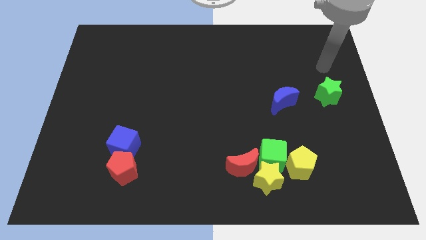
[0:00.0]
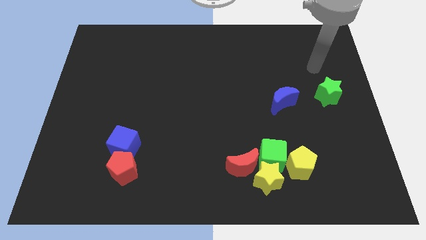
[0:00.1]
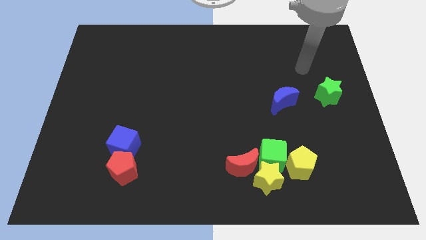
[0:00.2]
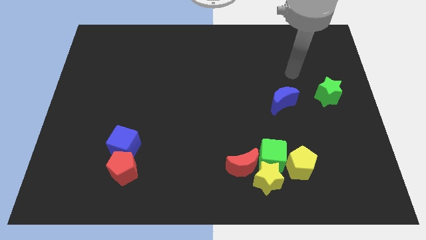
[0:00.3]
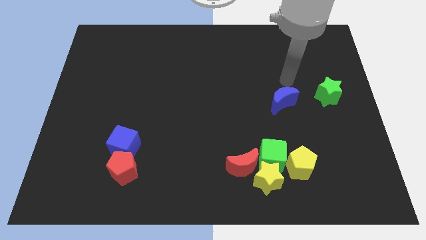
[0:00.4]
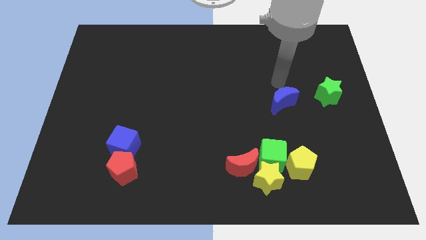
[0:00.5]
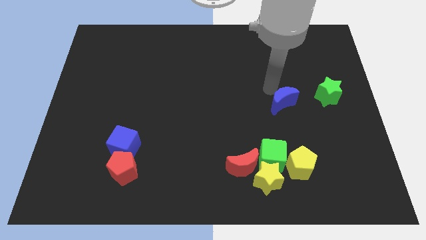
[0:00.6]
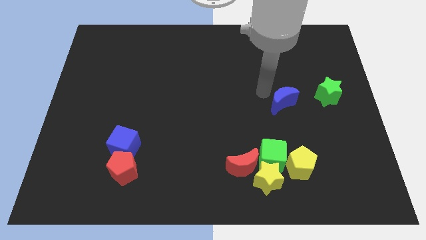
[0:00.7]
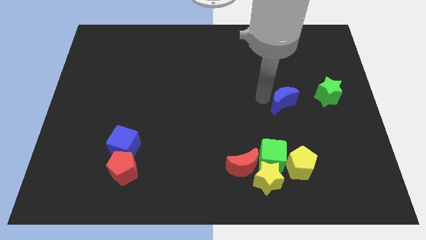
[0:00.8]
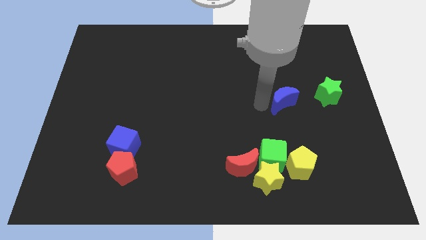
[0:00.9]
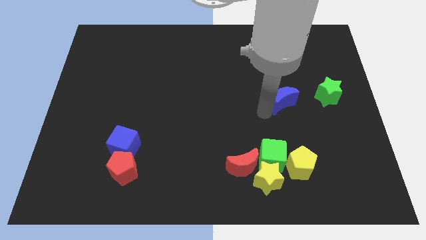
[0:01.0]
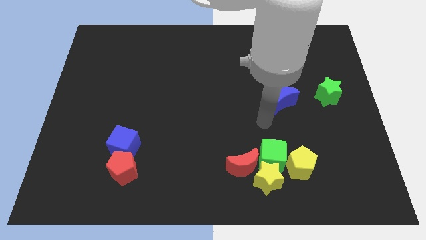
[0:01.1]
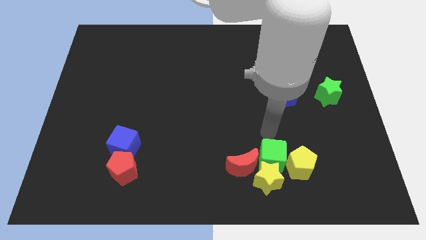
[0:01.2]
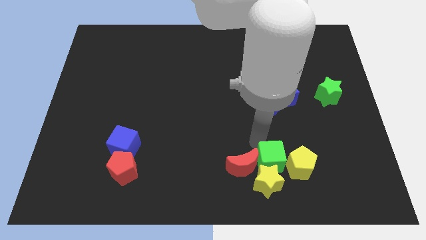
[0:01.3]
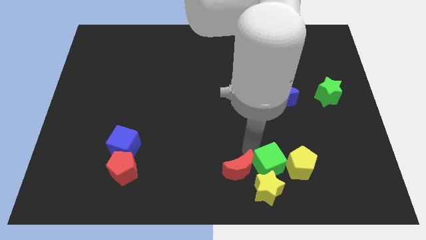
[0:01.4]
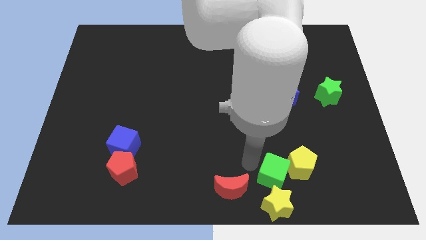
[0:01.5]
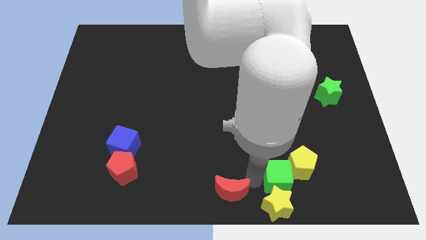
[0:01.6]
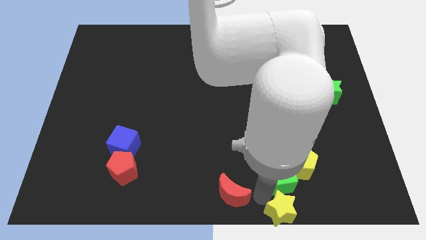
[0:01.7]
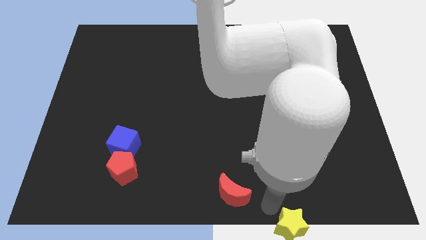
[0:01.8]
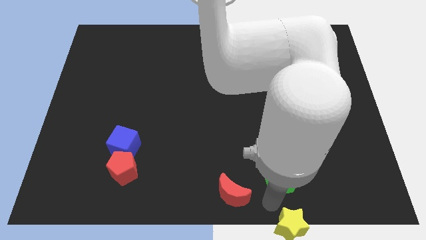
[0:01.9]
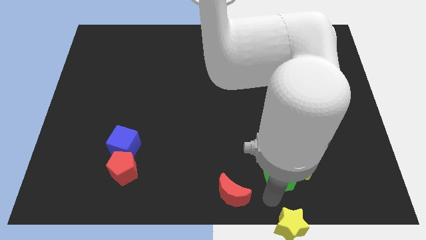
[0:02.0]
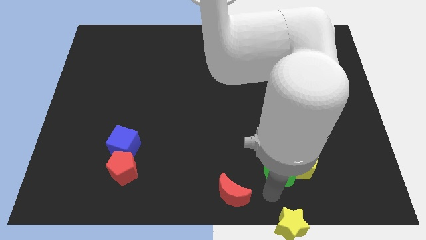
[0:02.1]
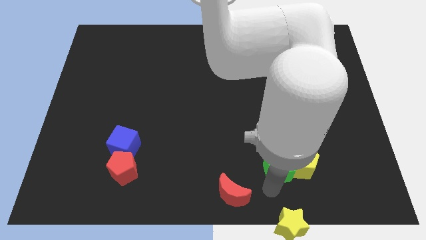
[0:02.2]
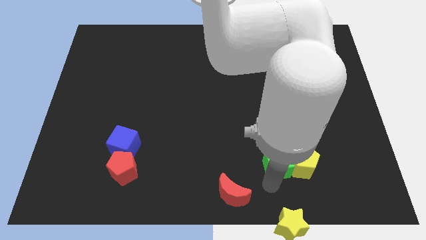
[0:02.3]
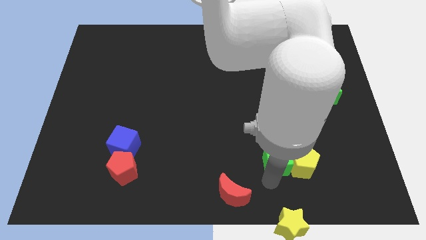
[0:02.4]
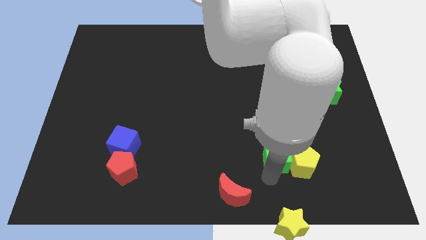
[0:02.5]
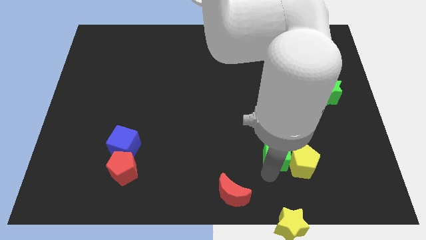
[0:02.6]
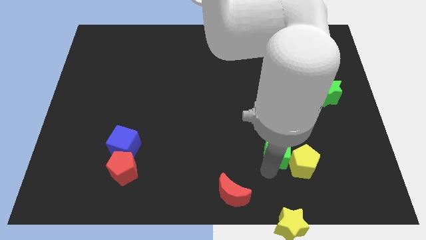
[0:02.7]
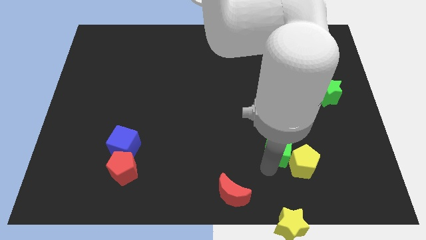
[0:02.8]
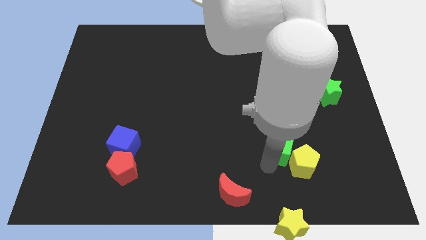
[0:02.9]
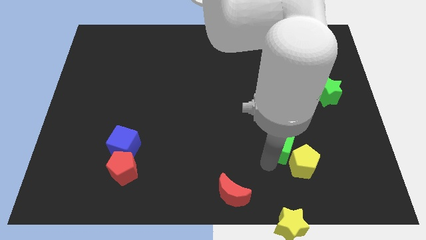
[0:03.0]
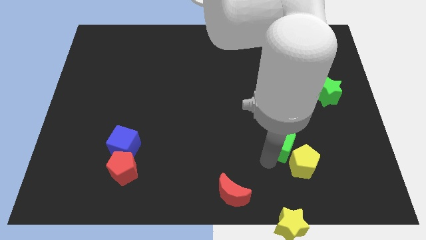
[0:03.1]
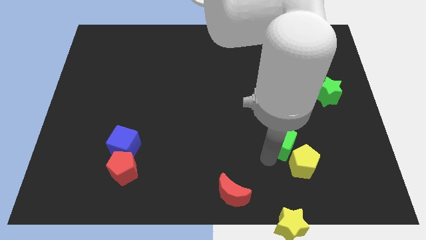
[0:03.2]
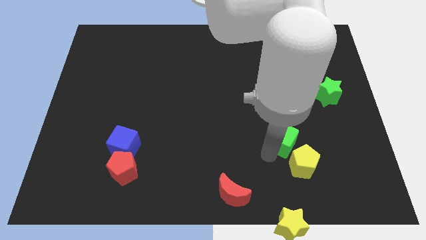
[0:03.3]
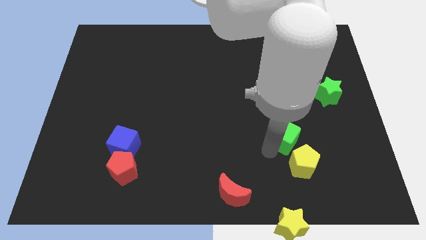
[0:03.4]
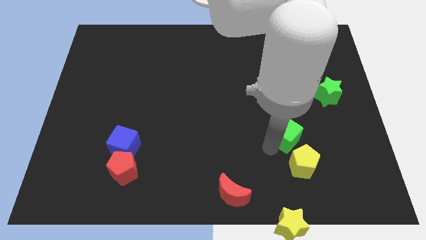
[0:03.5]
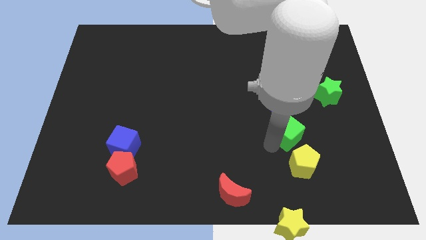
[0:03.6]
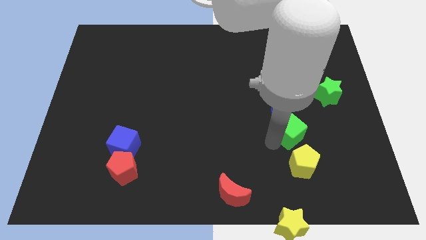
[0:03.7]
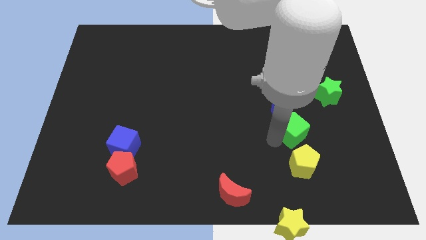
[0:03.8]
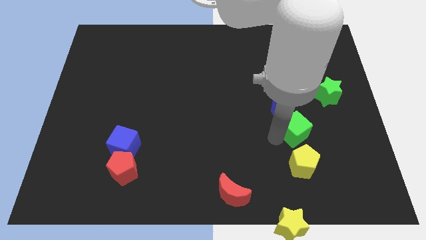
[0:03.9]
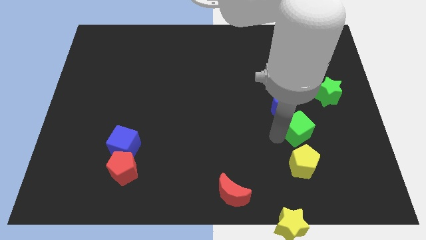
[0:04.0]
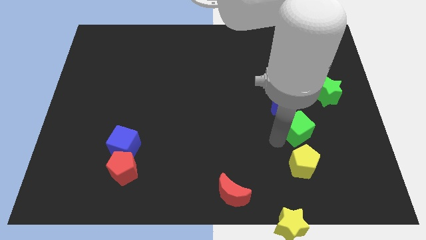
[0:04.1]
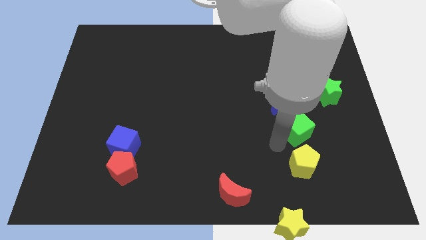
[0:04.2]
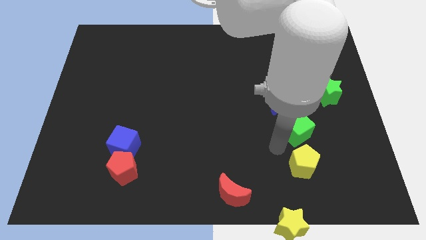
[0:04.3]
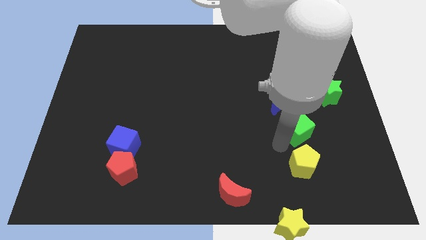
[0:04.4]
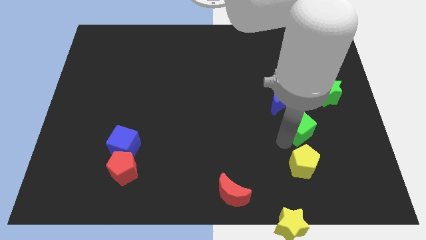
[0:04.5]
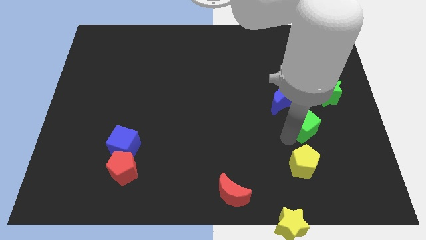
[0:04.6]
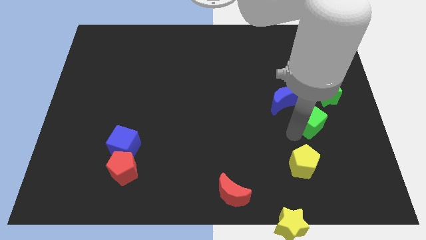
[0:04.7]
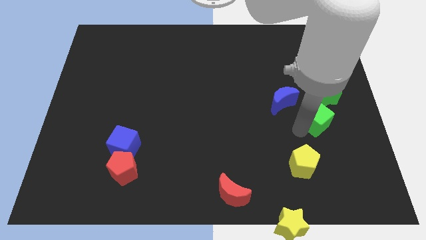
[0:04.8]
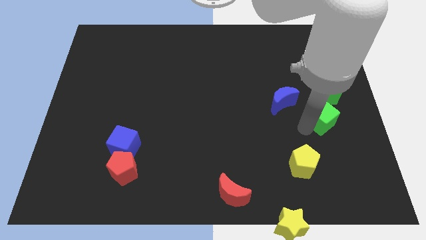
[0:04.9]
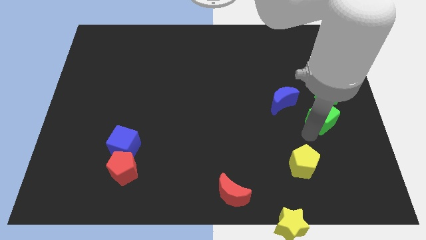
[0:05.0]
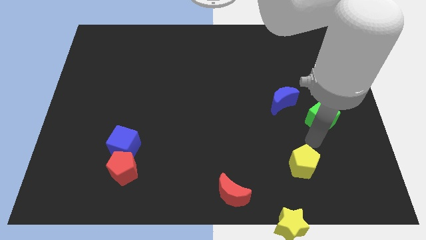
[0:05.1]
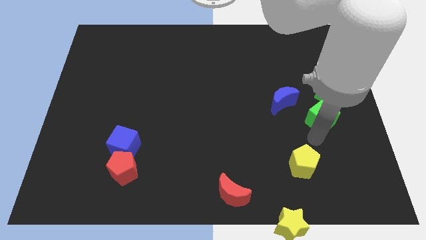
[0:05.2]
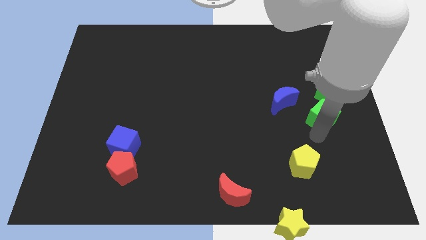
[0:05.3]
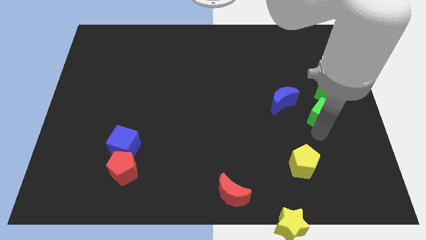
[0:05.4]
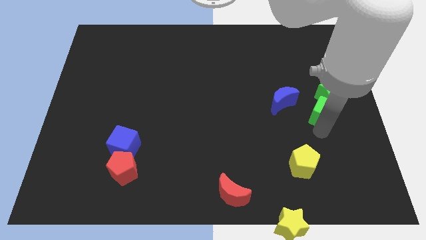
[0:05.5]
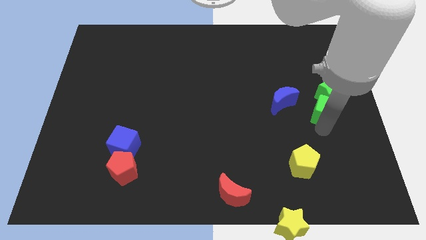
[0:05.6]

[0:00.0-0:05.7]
put the green cube next to the green star
